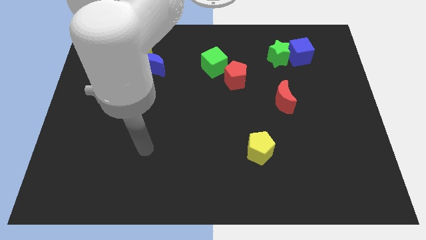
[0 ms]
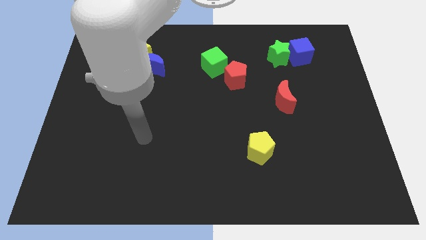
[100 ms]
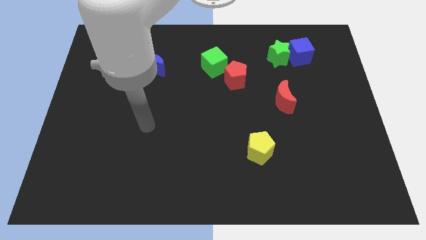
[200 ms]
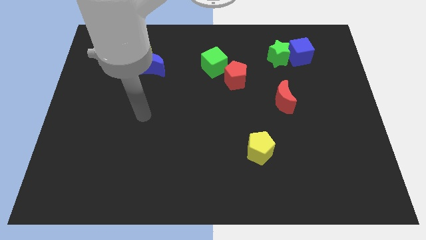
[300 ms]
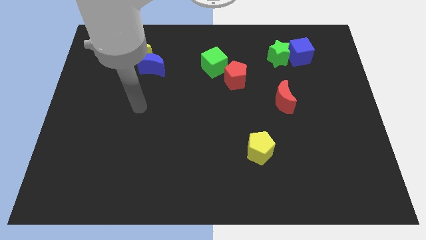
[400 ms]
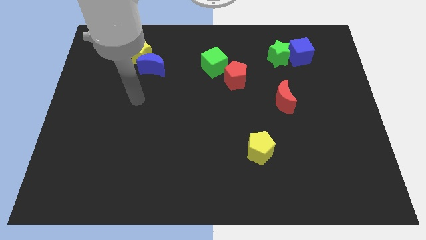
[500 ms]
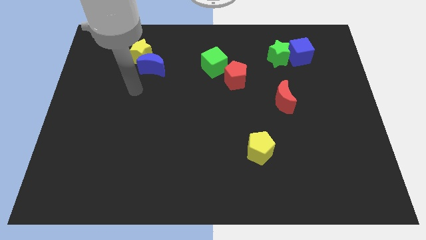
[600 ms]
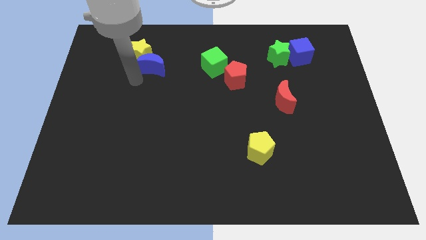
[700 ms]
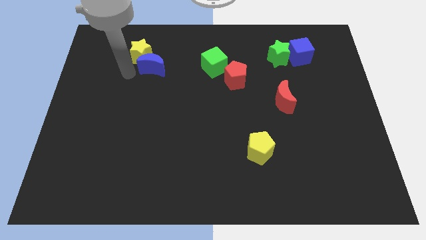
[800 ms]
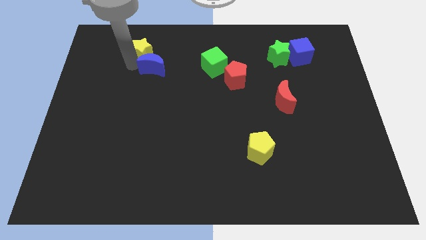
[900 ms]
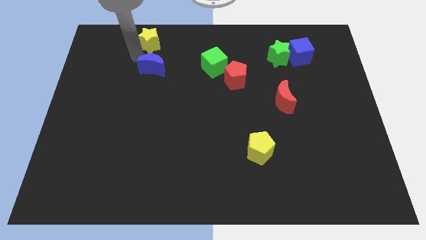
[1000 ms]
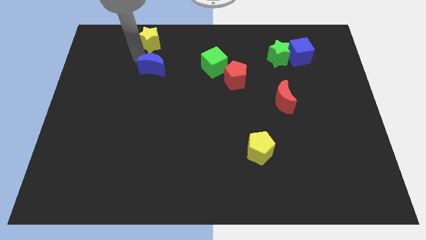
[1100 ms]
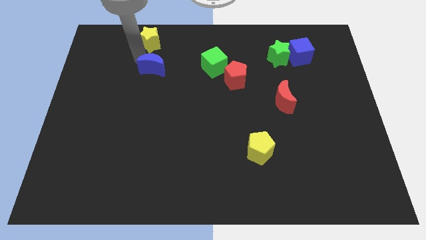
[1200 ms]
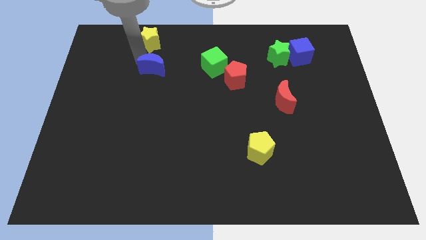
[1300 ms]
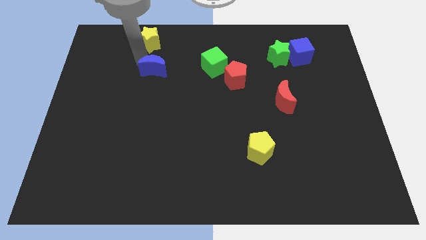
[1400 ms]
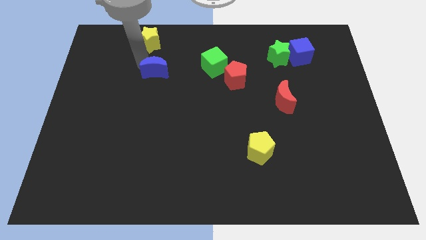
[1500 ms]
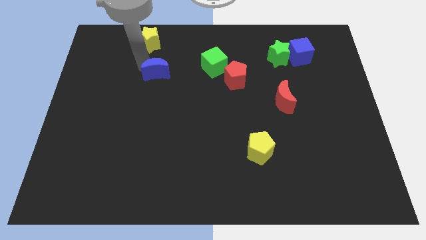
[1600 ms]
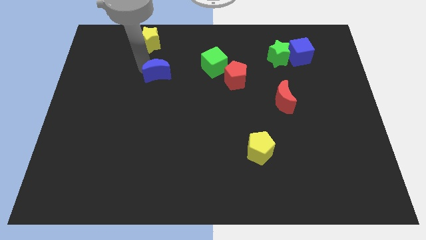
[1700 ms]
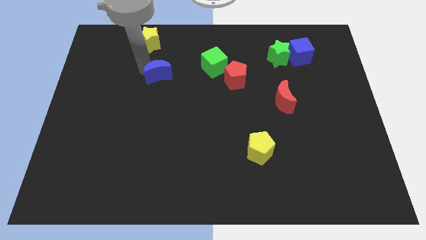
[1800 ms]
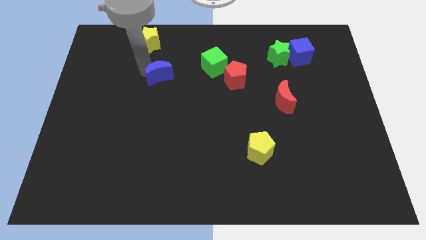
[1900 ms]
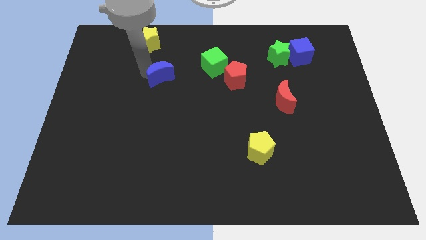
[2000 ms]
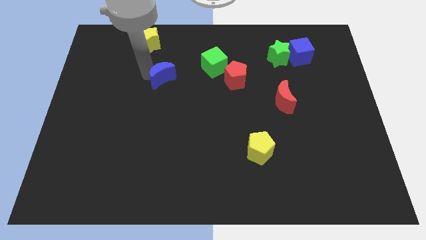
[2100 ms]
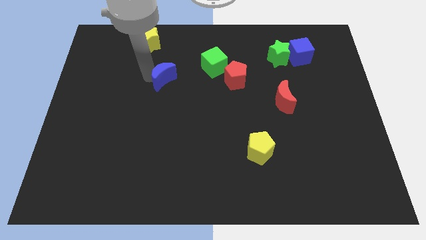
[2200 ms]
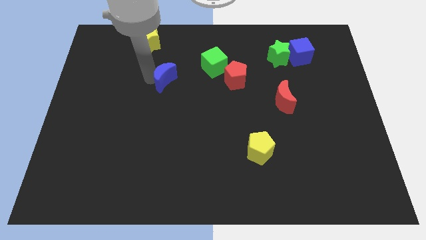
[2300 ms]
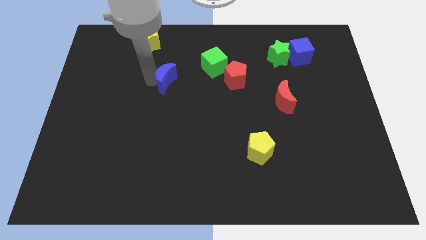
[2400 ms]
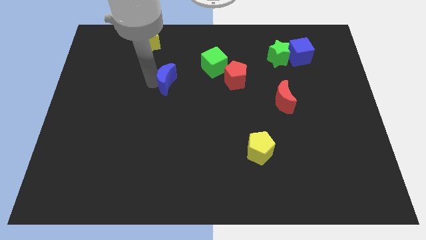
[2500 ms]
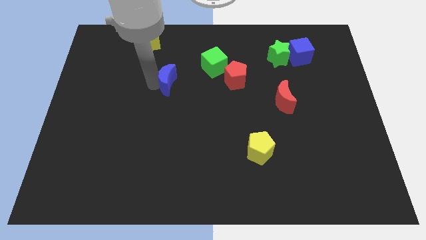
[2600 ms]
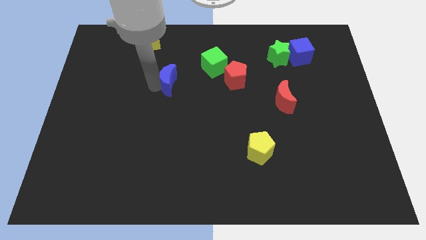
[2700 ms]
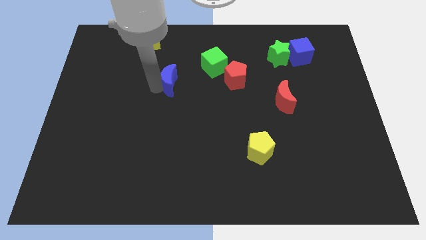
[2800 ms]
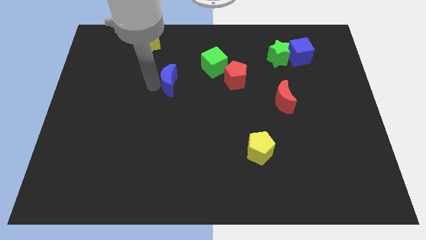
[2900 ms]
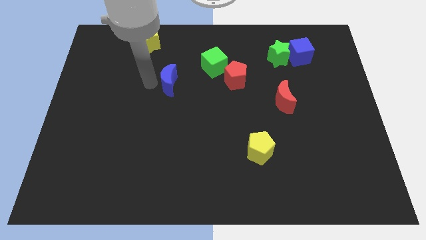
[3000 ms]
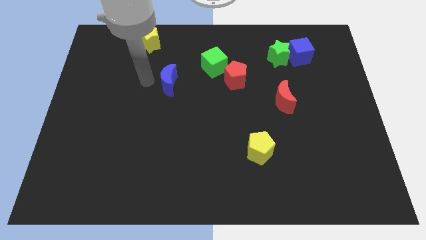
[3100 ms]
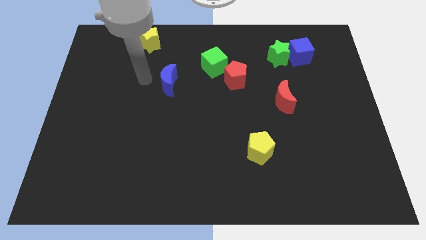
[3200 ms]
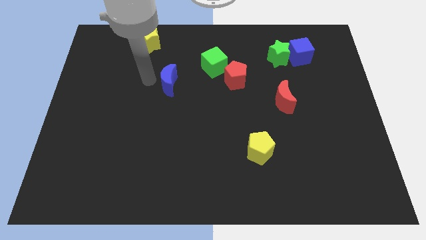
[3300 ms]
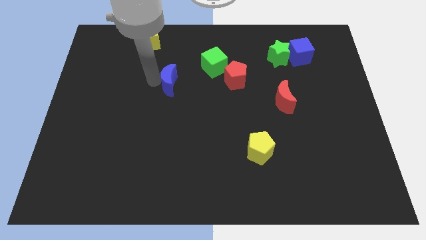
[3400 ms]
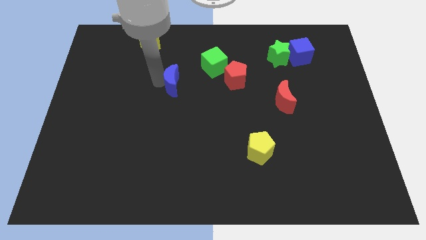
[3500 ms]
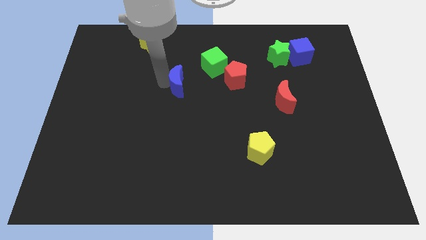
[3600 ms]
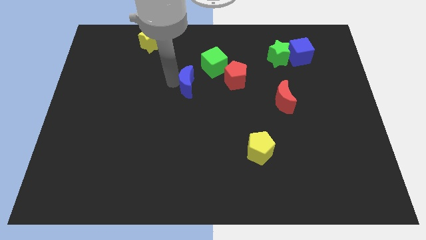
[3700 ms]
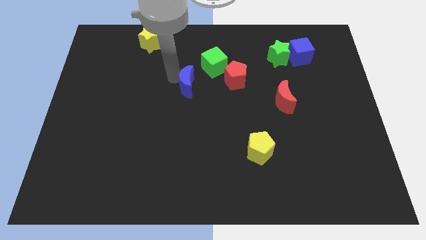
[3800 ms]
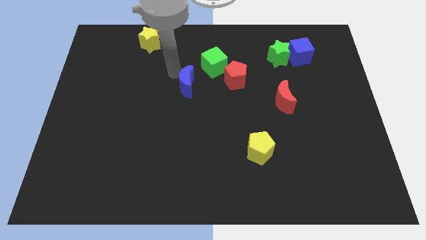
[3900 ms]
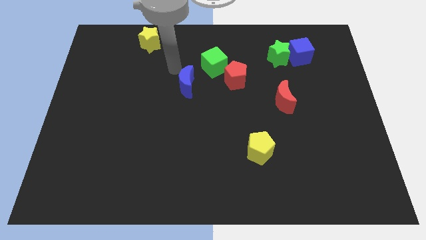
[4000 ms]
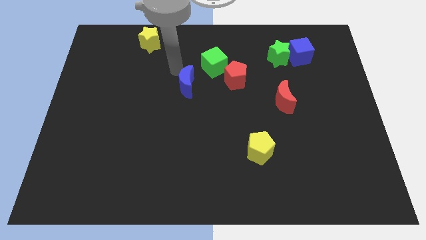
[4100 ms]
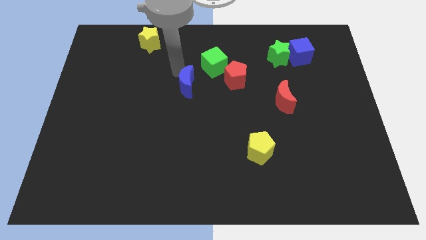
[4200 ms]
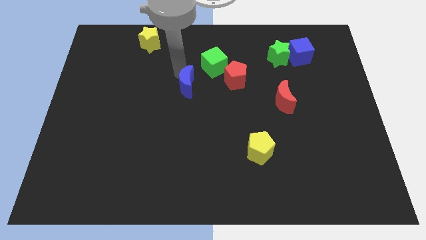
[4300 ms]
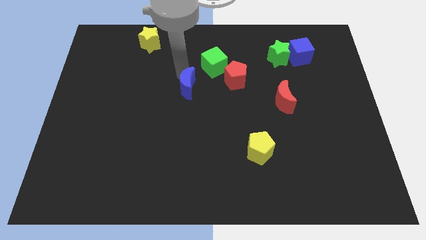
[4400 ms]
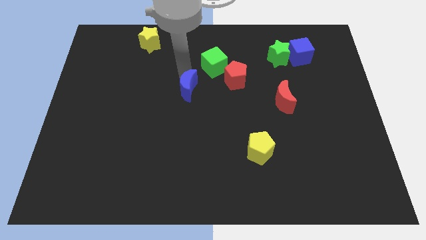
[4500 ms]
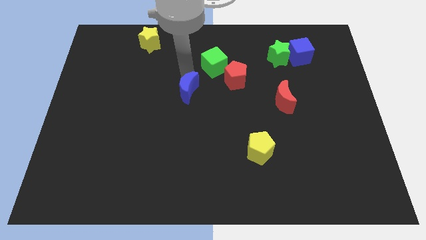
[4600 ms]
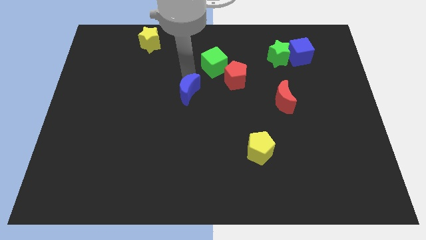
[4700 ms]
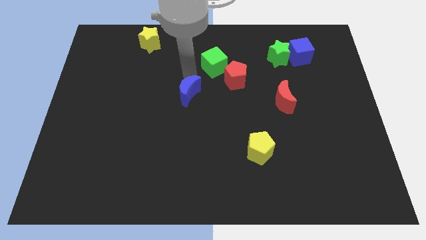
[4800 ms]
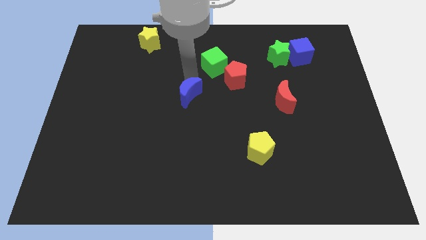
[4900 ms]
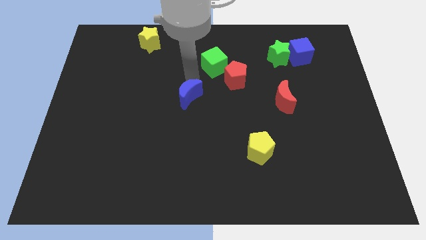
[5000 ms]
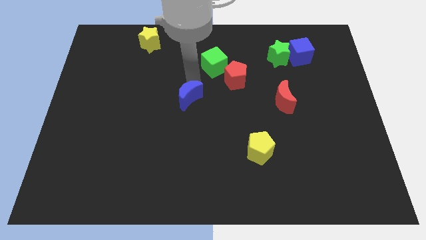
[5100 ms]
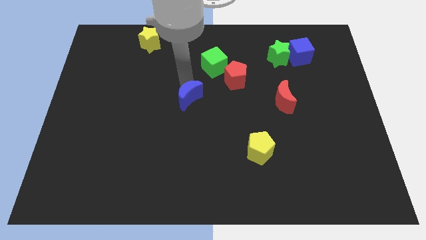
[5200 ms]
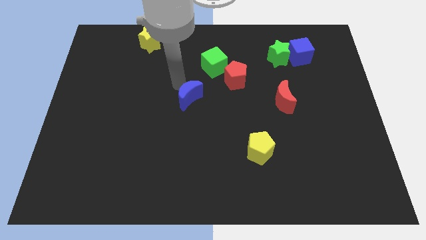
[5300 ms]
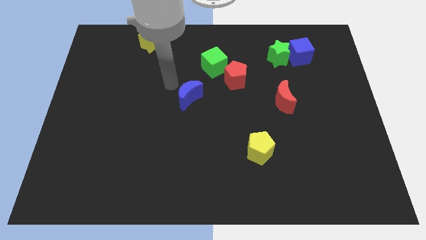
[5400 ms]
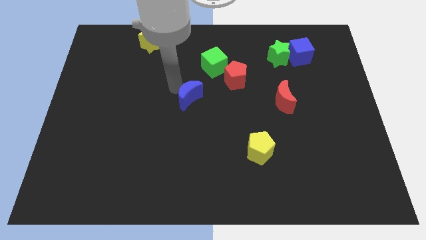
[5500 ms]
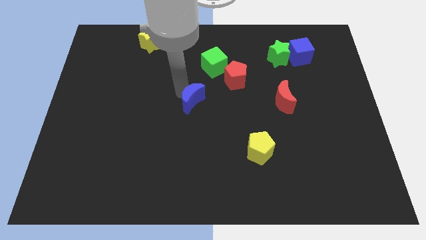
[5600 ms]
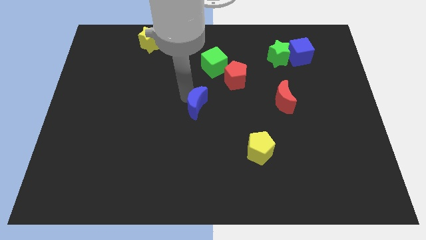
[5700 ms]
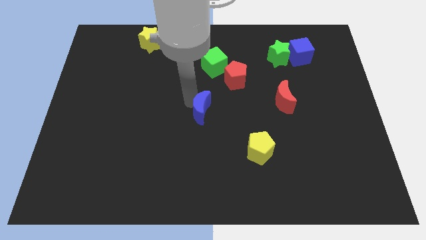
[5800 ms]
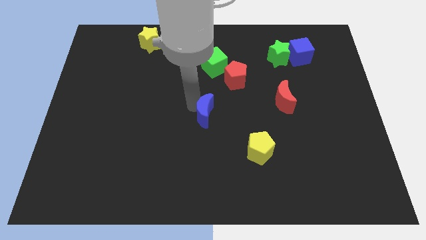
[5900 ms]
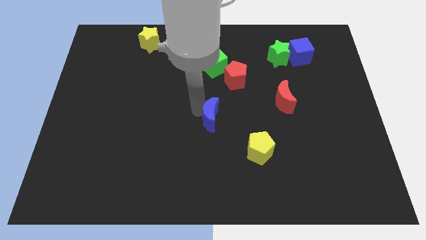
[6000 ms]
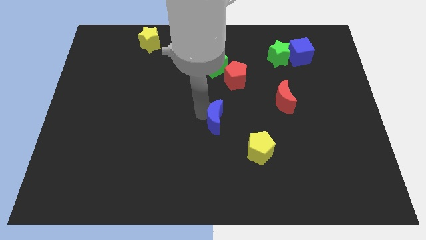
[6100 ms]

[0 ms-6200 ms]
slide the blue moon to the top left side of the yellow pentagon

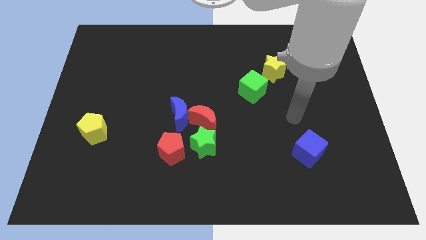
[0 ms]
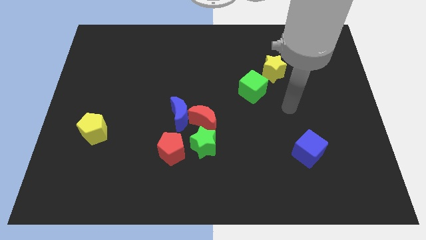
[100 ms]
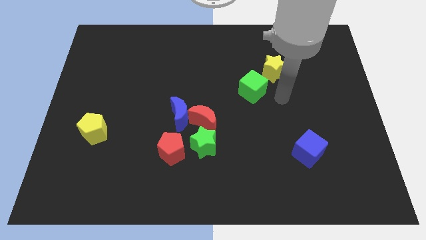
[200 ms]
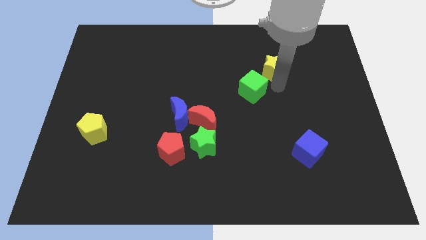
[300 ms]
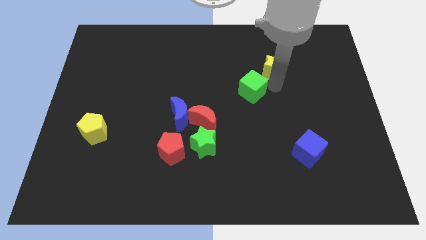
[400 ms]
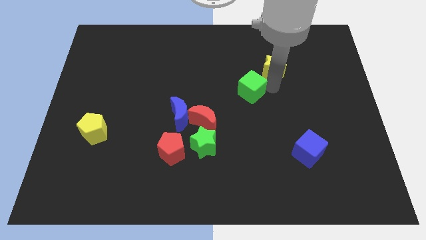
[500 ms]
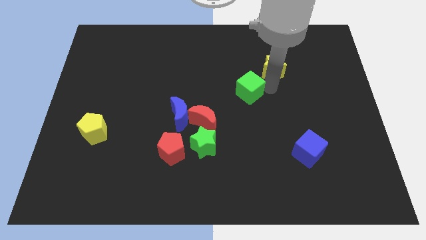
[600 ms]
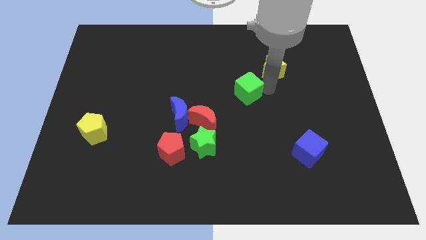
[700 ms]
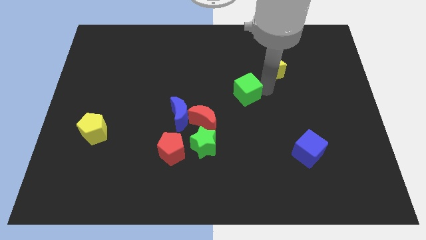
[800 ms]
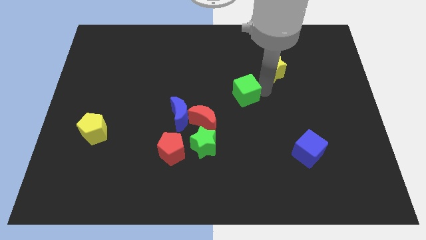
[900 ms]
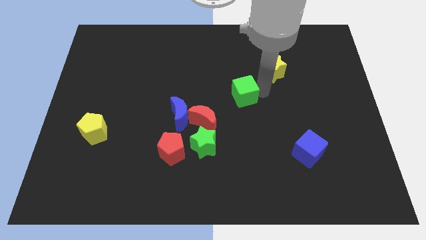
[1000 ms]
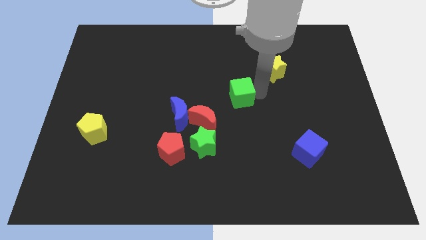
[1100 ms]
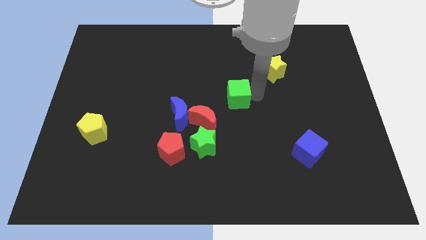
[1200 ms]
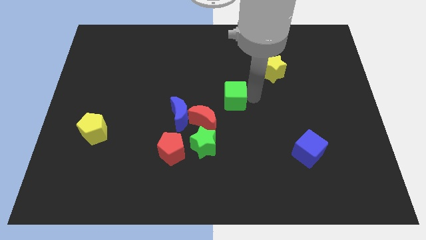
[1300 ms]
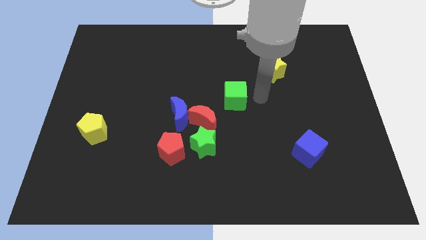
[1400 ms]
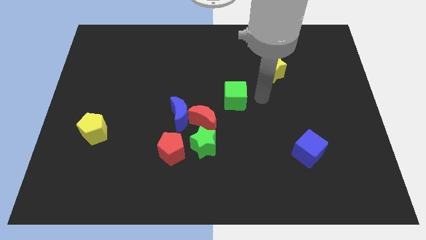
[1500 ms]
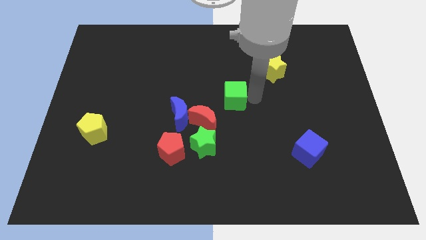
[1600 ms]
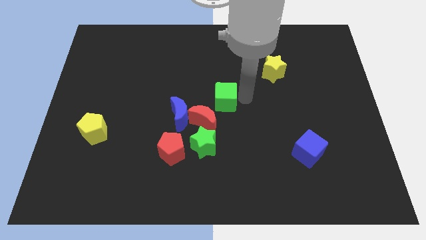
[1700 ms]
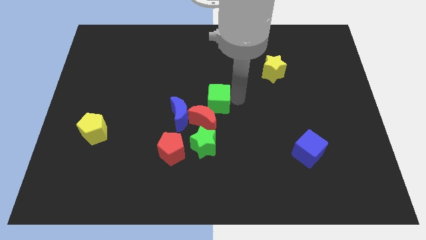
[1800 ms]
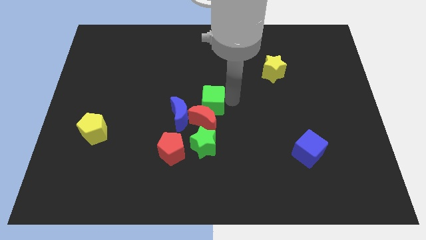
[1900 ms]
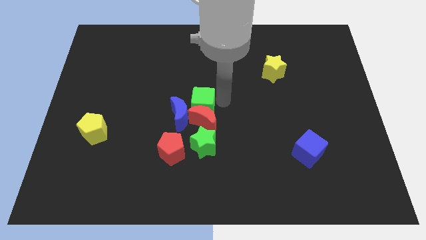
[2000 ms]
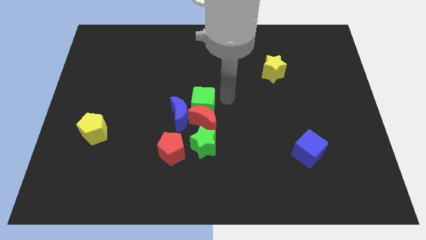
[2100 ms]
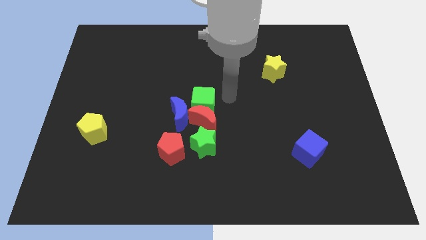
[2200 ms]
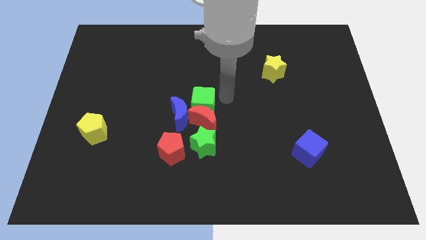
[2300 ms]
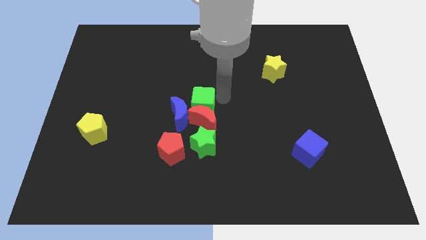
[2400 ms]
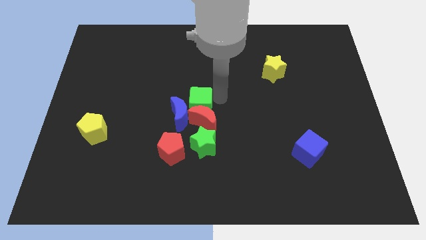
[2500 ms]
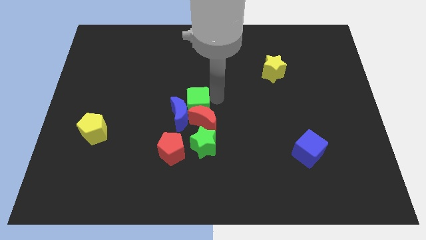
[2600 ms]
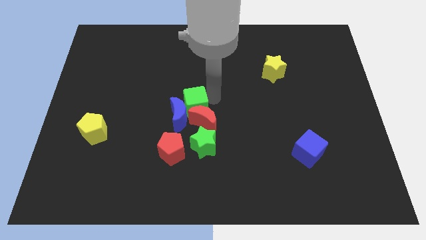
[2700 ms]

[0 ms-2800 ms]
put the green cube to the top side of the red pentagon
